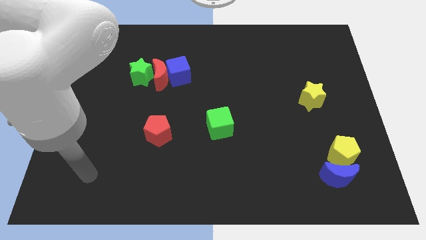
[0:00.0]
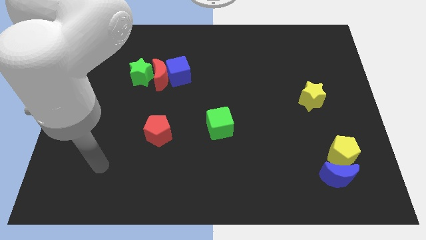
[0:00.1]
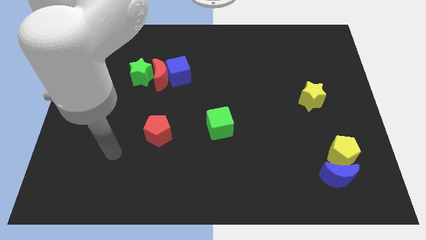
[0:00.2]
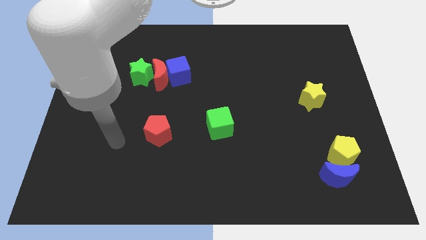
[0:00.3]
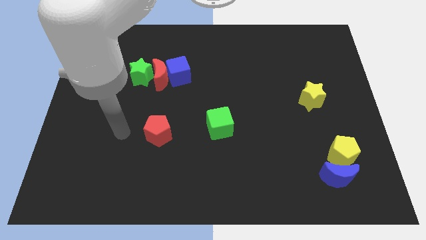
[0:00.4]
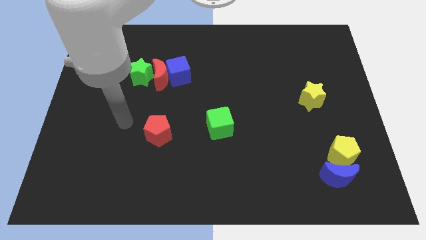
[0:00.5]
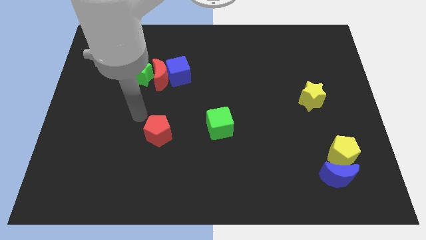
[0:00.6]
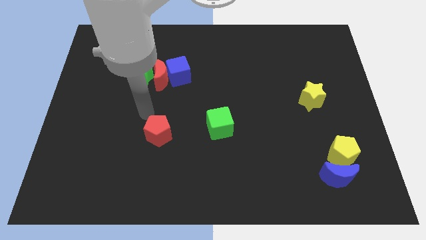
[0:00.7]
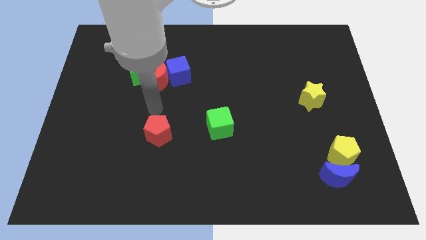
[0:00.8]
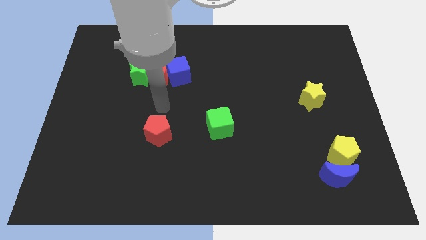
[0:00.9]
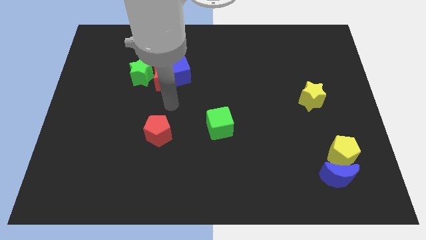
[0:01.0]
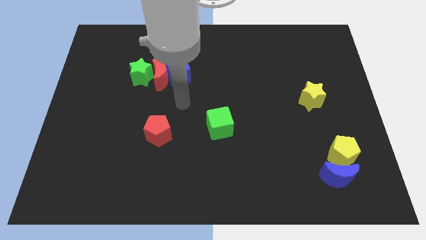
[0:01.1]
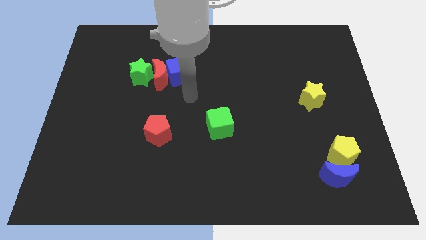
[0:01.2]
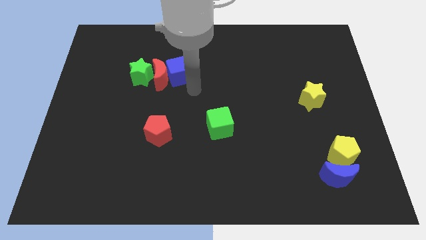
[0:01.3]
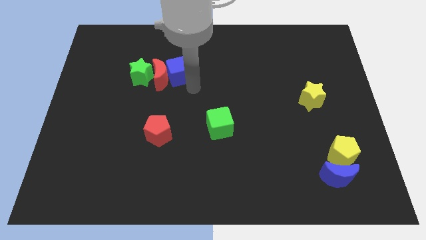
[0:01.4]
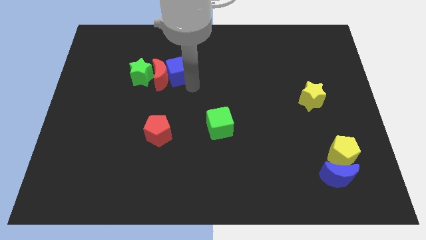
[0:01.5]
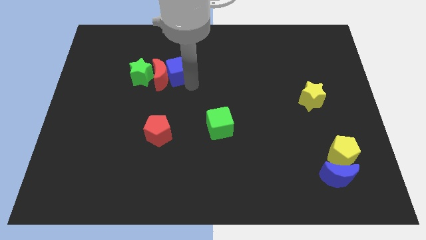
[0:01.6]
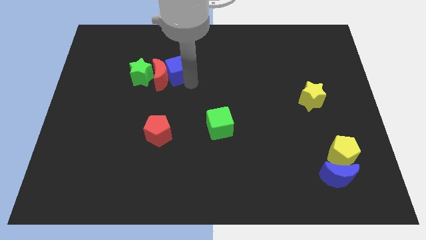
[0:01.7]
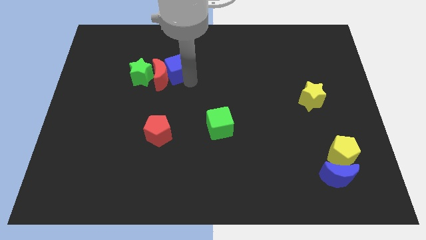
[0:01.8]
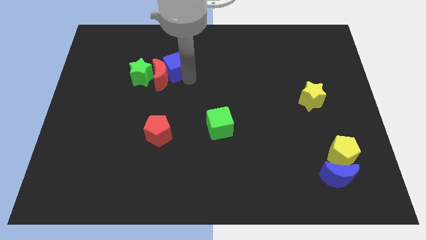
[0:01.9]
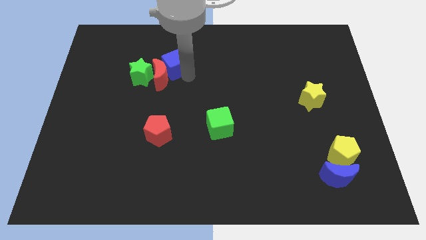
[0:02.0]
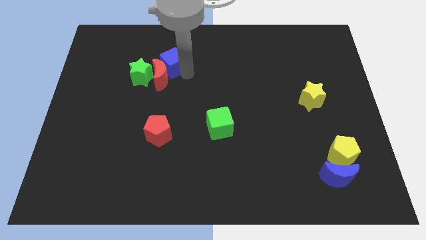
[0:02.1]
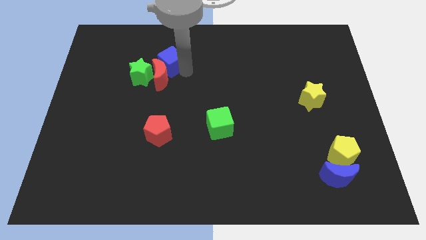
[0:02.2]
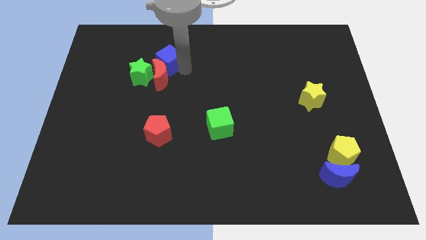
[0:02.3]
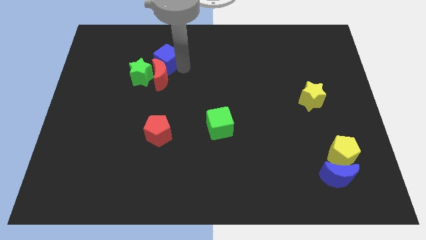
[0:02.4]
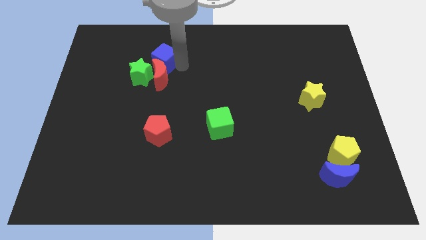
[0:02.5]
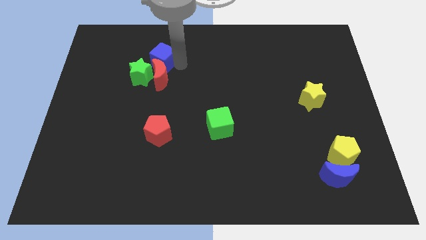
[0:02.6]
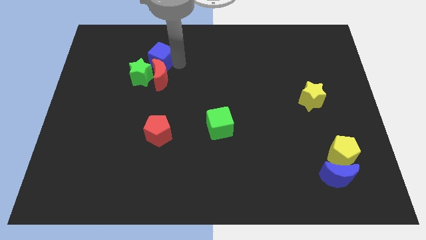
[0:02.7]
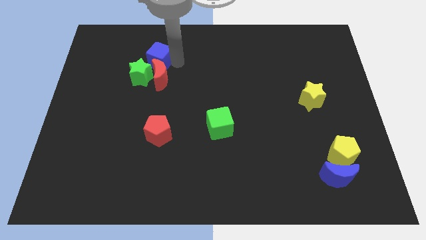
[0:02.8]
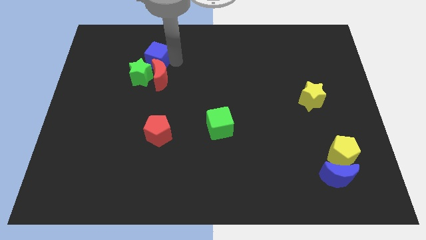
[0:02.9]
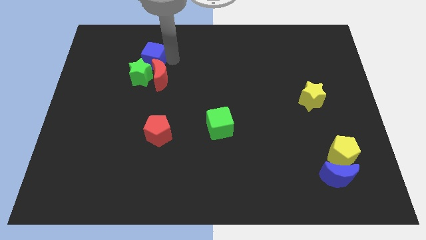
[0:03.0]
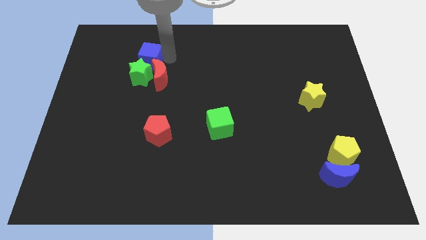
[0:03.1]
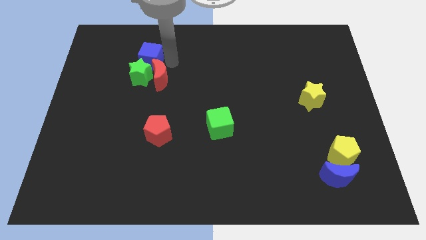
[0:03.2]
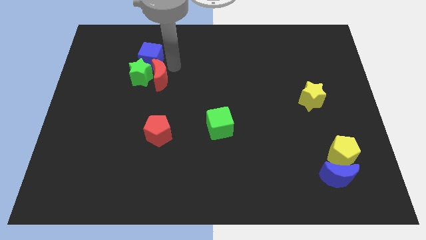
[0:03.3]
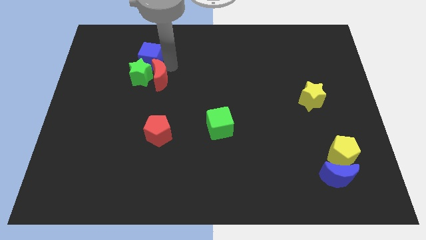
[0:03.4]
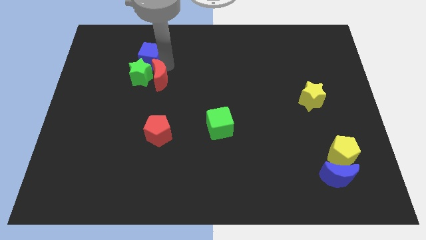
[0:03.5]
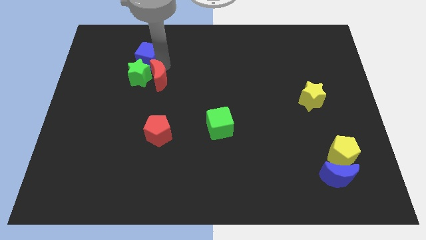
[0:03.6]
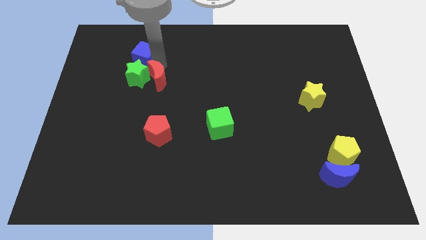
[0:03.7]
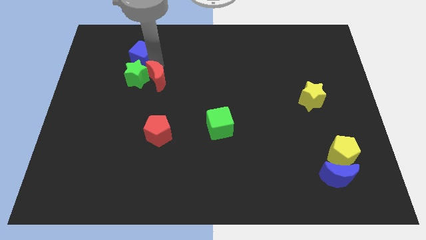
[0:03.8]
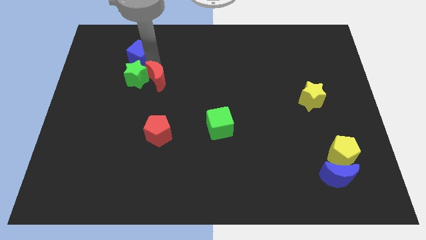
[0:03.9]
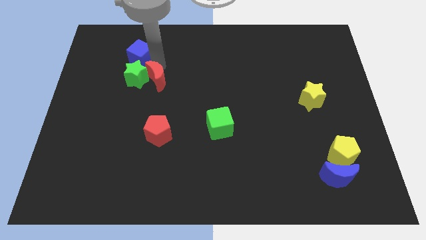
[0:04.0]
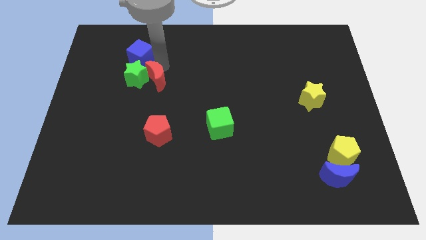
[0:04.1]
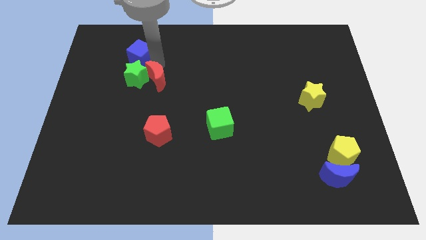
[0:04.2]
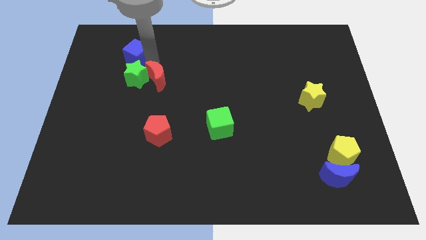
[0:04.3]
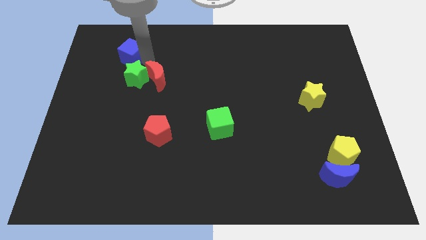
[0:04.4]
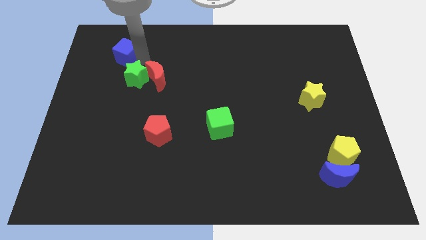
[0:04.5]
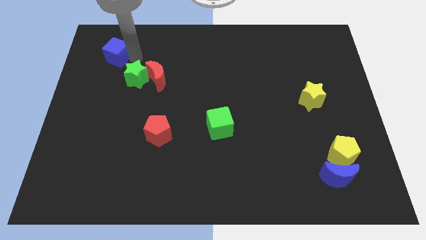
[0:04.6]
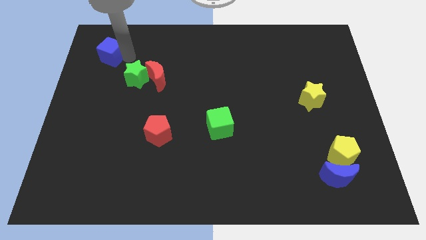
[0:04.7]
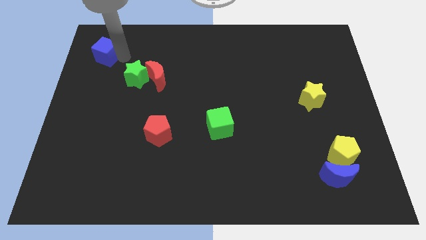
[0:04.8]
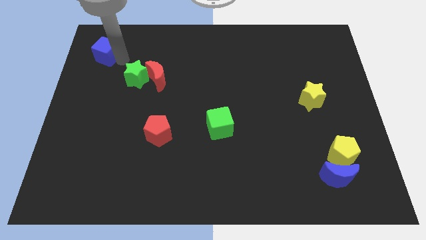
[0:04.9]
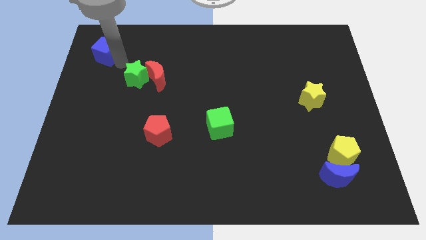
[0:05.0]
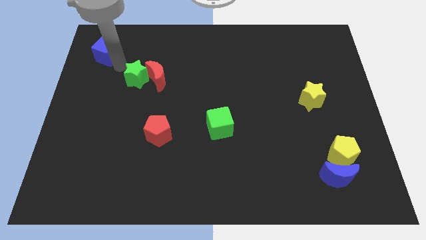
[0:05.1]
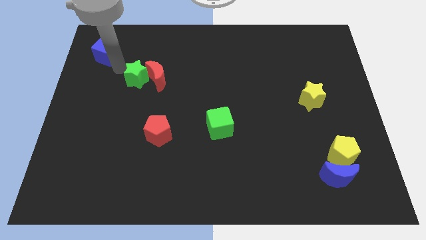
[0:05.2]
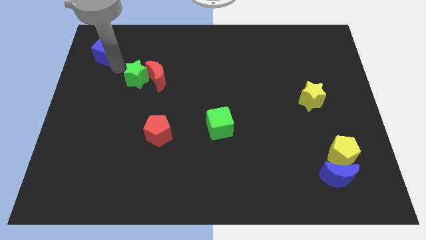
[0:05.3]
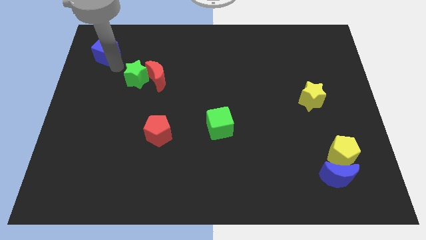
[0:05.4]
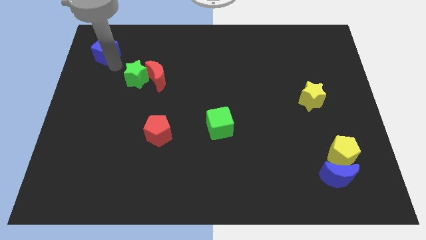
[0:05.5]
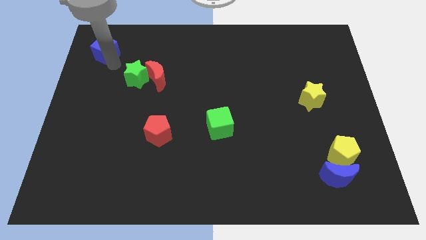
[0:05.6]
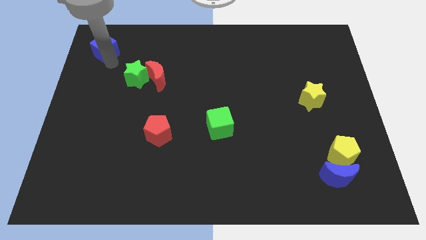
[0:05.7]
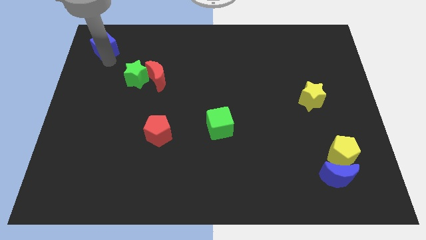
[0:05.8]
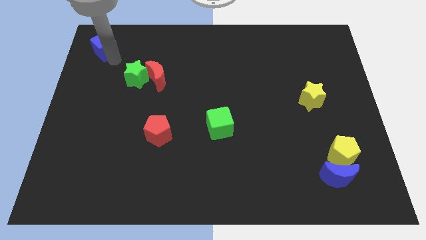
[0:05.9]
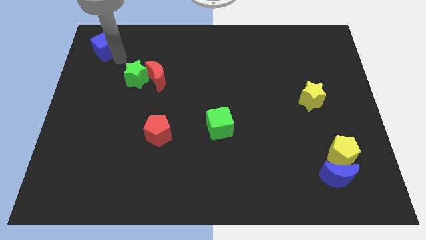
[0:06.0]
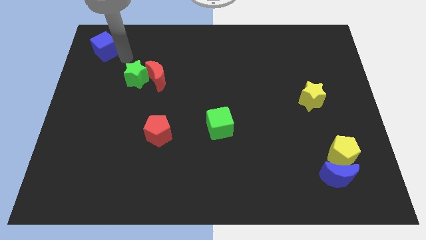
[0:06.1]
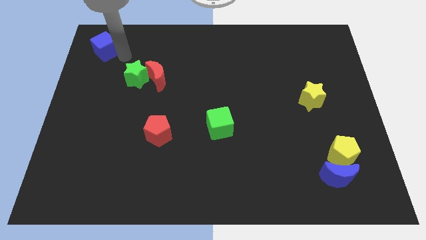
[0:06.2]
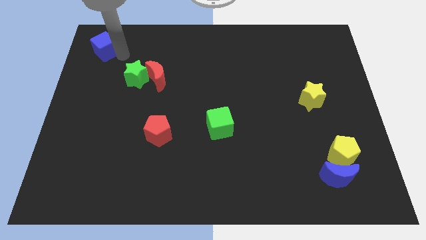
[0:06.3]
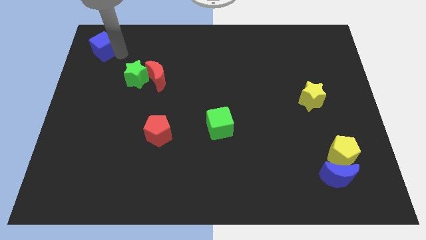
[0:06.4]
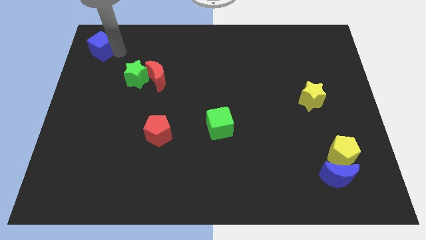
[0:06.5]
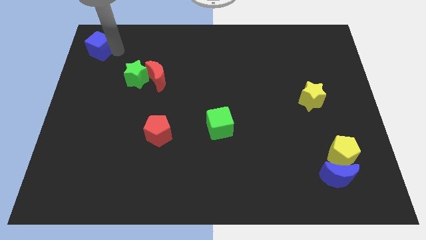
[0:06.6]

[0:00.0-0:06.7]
push the blue cube to the upper left corner
